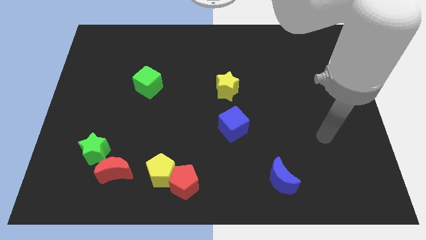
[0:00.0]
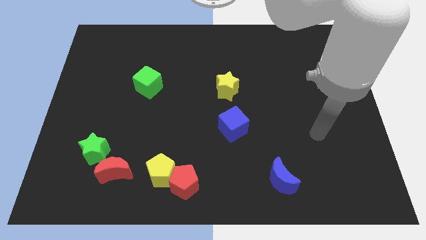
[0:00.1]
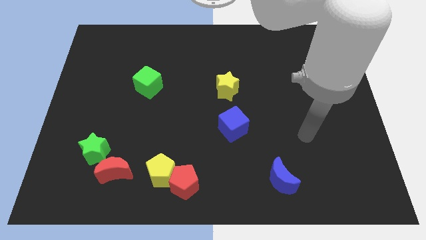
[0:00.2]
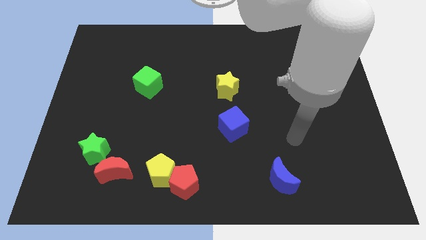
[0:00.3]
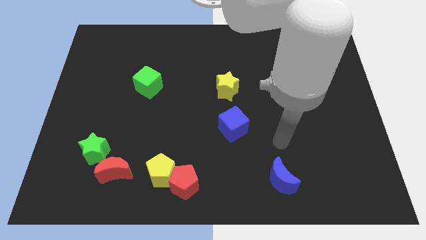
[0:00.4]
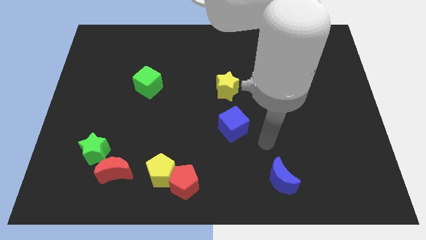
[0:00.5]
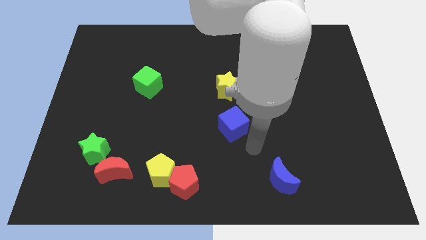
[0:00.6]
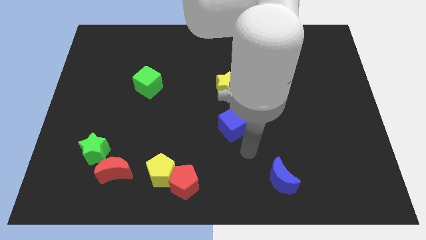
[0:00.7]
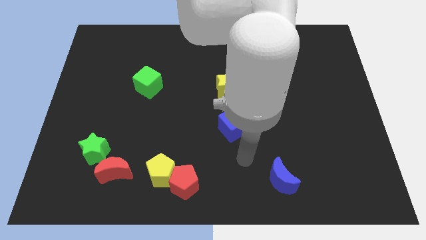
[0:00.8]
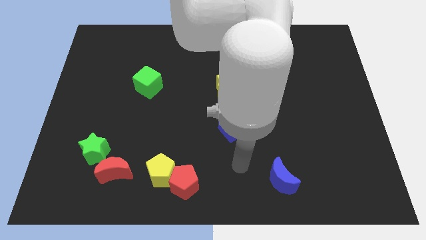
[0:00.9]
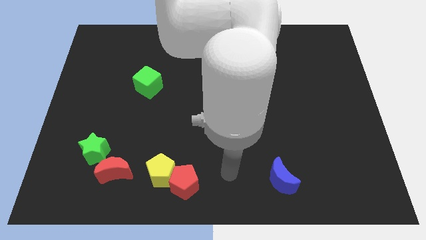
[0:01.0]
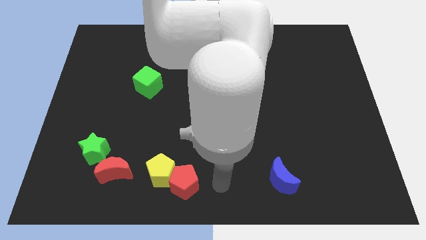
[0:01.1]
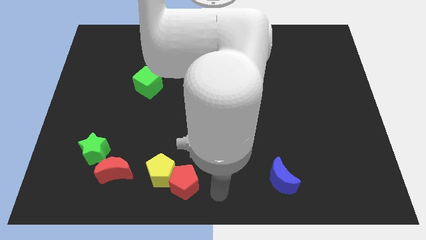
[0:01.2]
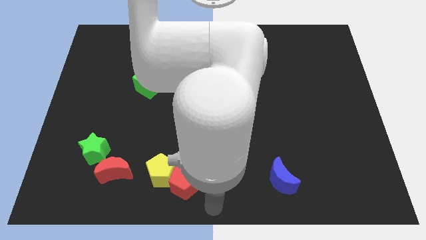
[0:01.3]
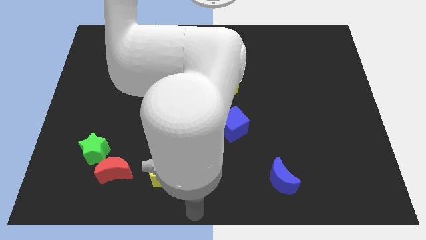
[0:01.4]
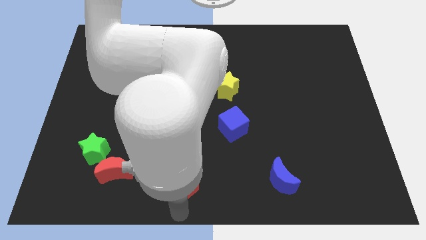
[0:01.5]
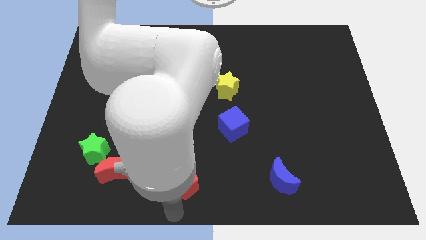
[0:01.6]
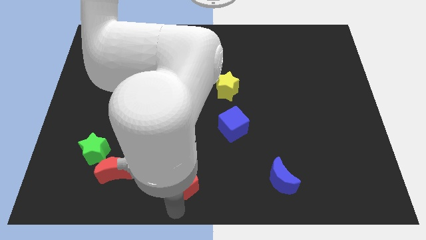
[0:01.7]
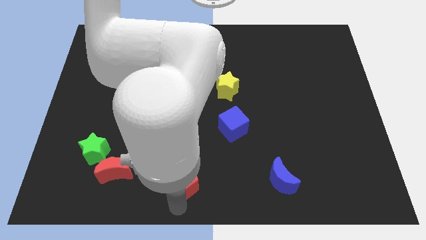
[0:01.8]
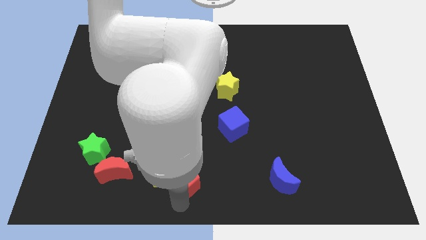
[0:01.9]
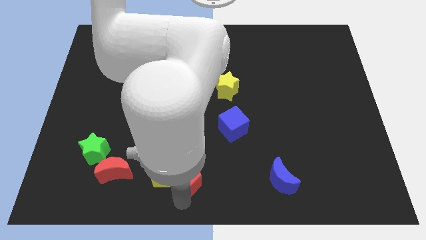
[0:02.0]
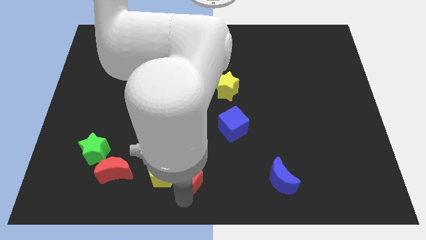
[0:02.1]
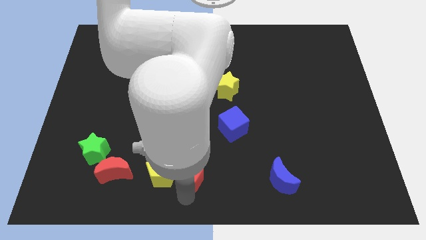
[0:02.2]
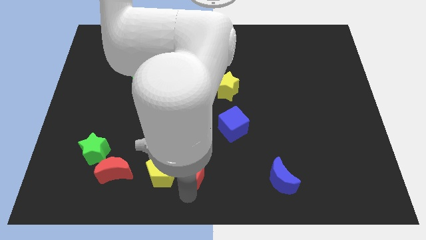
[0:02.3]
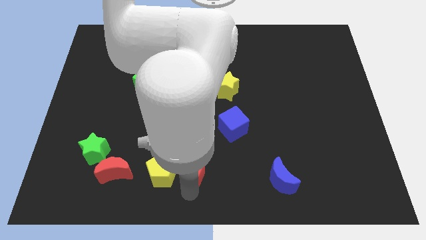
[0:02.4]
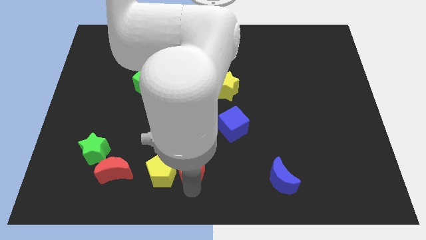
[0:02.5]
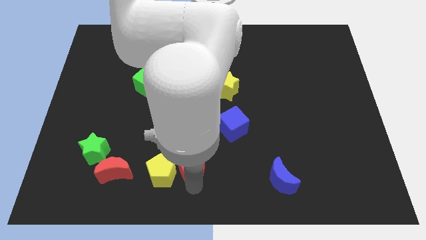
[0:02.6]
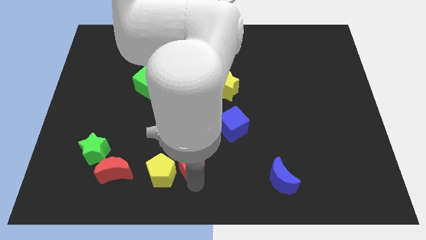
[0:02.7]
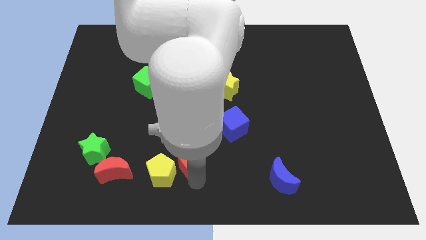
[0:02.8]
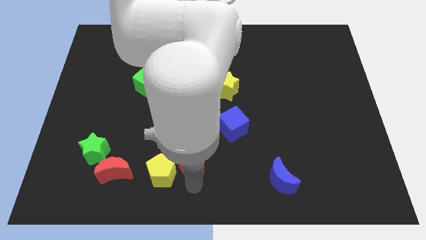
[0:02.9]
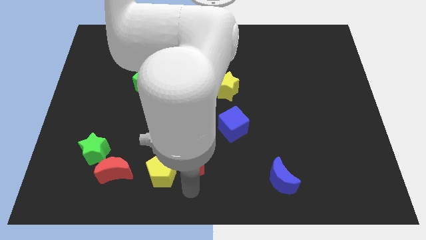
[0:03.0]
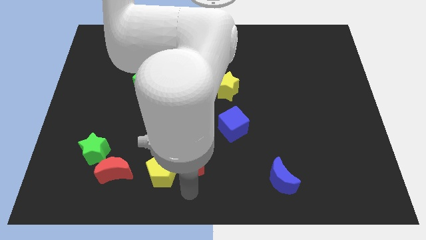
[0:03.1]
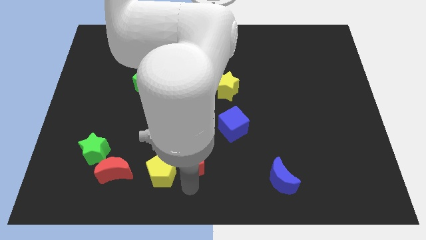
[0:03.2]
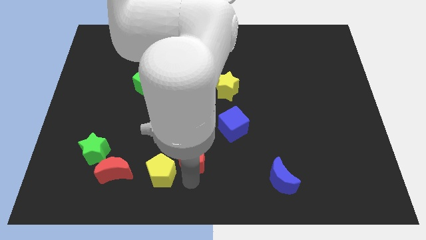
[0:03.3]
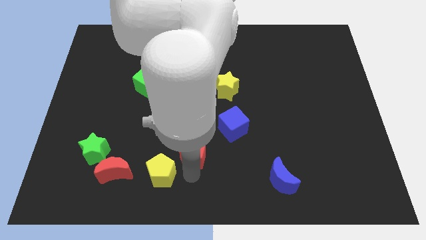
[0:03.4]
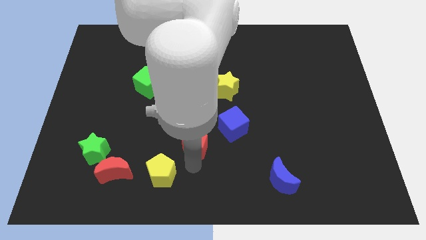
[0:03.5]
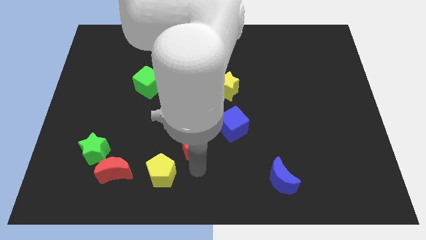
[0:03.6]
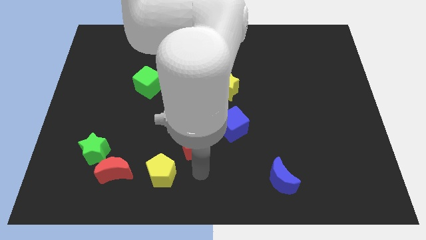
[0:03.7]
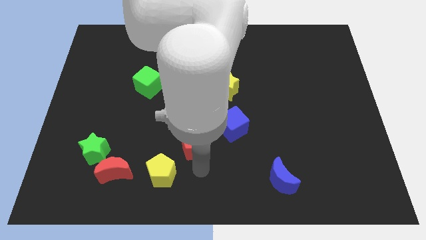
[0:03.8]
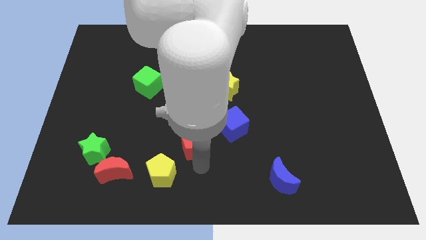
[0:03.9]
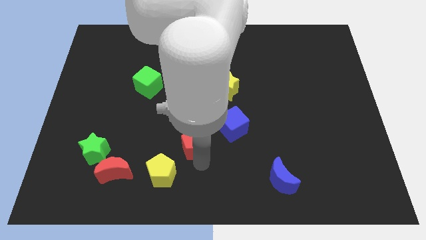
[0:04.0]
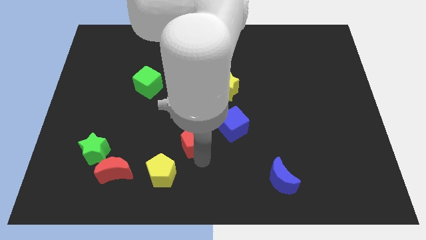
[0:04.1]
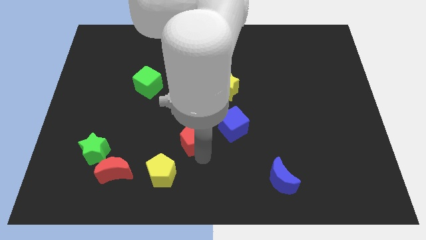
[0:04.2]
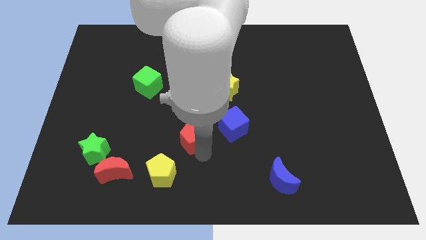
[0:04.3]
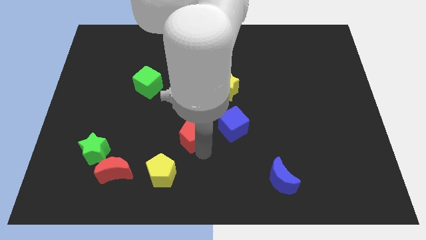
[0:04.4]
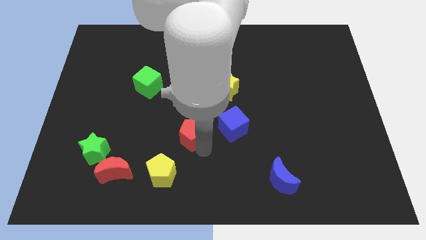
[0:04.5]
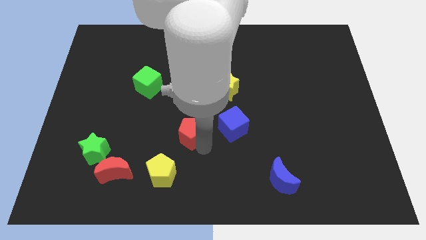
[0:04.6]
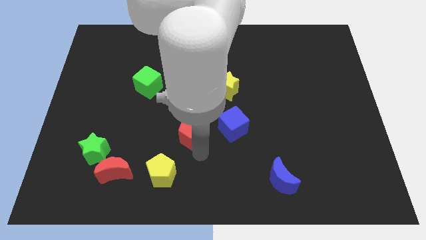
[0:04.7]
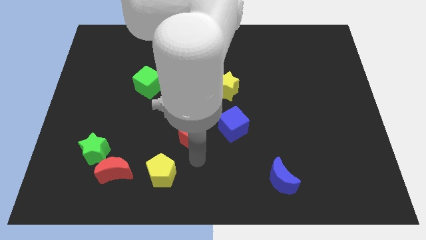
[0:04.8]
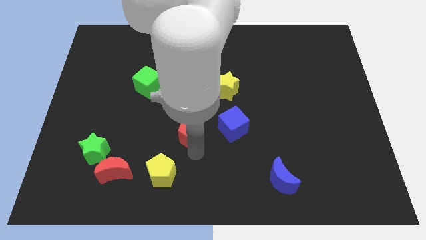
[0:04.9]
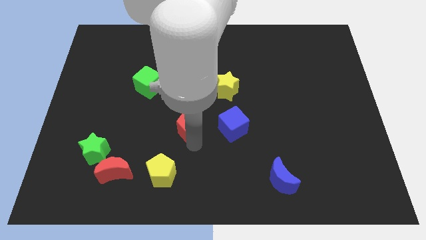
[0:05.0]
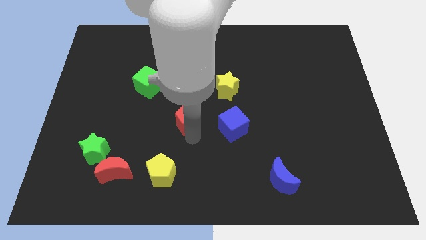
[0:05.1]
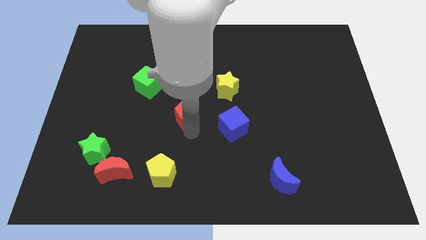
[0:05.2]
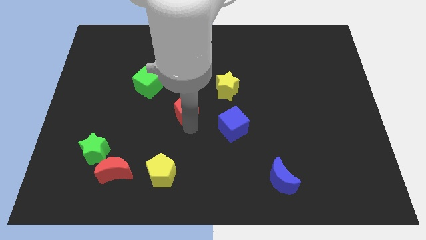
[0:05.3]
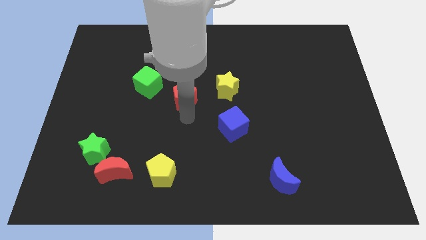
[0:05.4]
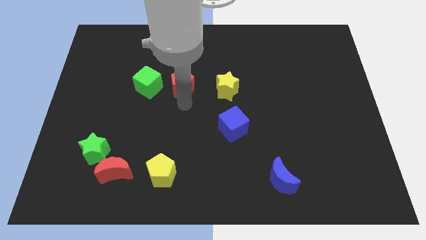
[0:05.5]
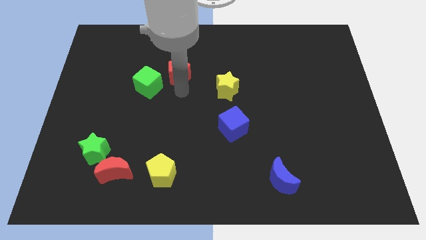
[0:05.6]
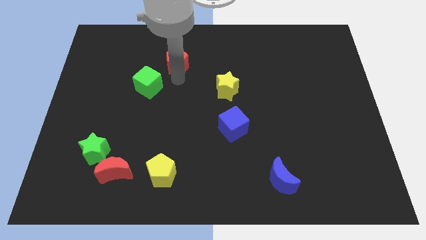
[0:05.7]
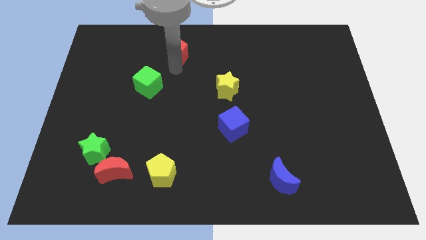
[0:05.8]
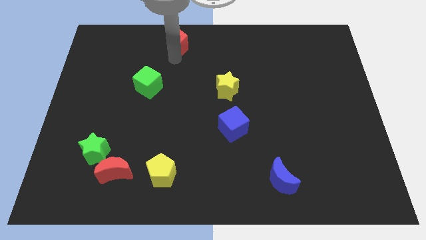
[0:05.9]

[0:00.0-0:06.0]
push the red pentagon to the top

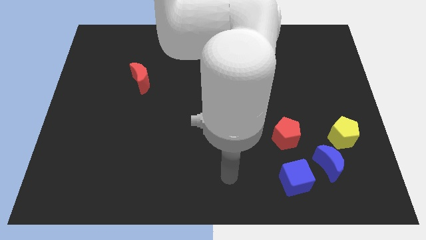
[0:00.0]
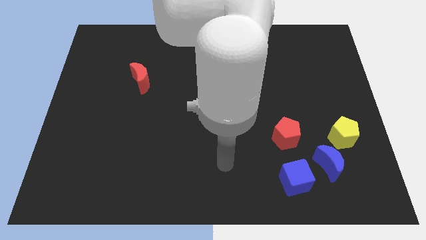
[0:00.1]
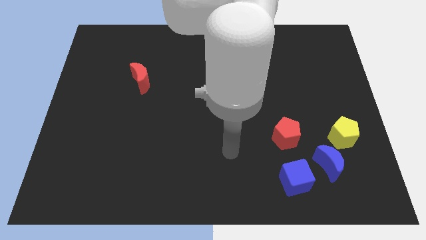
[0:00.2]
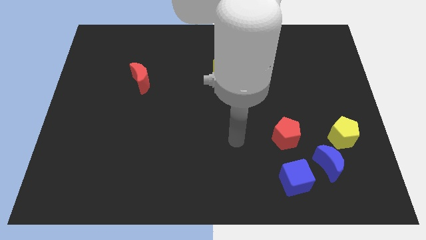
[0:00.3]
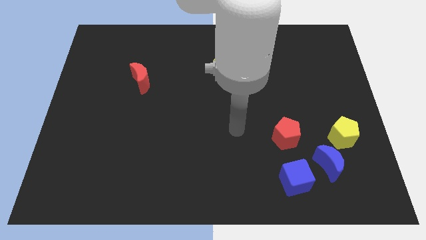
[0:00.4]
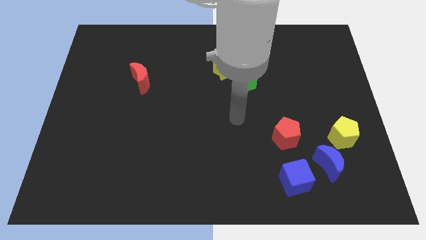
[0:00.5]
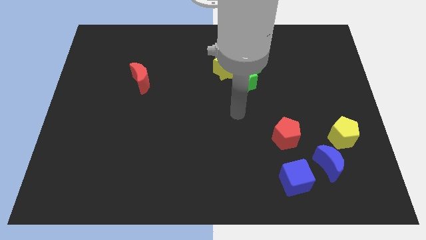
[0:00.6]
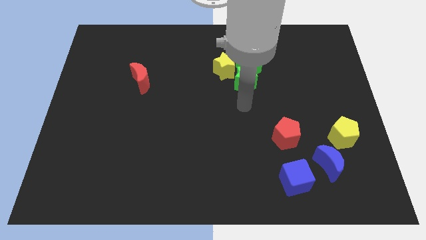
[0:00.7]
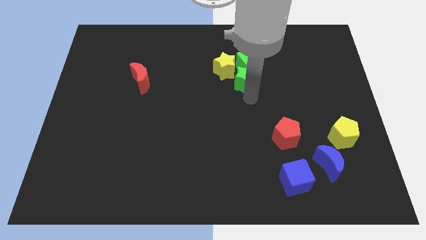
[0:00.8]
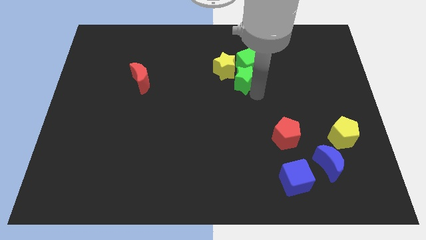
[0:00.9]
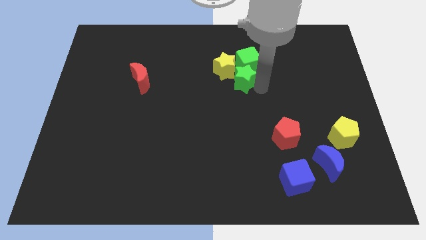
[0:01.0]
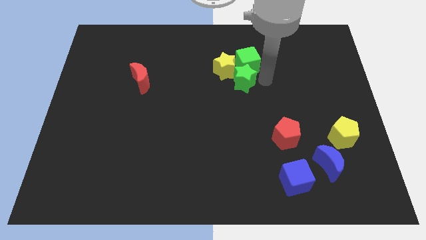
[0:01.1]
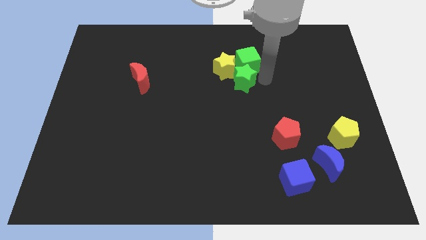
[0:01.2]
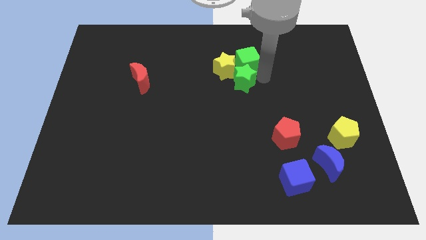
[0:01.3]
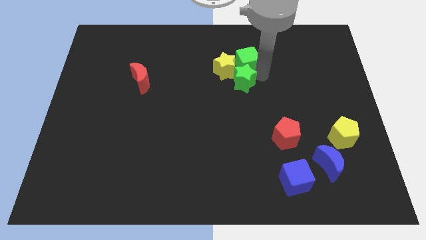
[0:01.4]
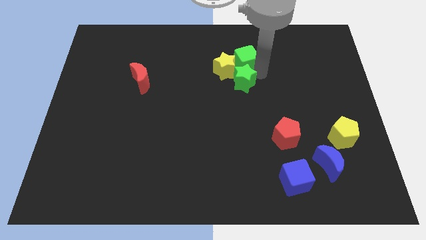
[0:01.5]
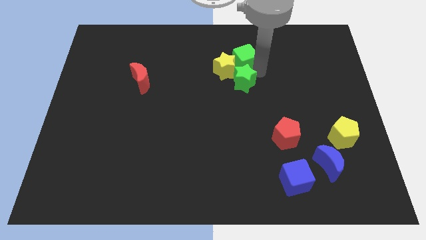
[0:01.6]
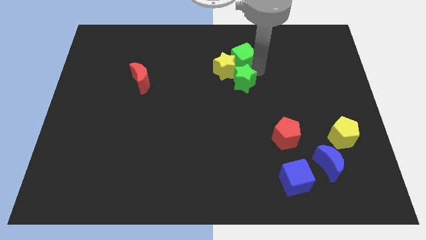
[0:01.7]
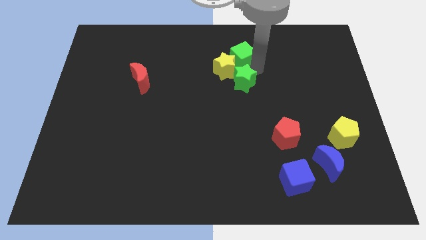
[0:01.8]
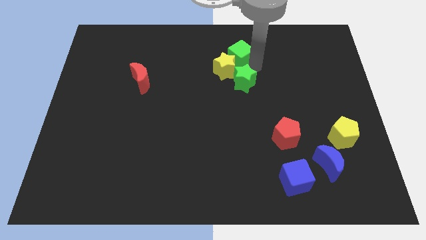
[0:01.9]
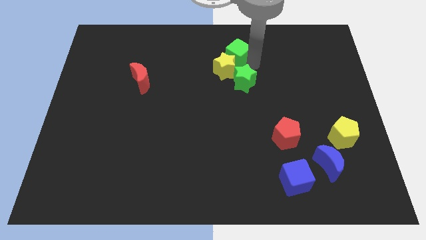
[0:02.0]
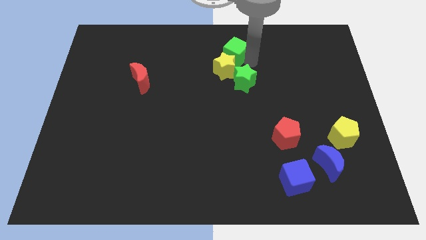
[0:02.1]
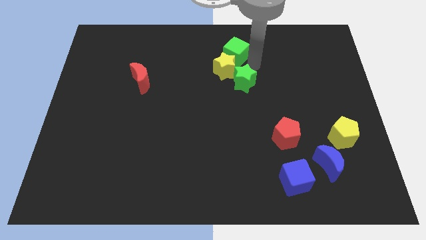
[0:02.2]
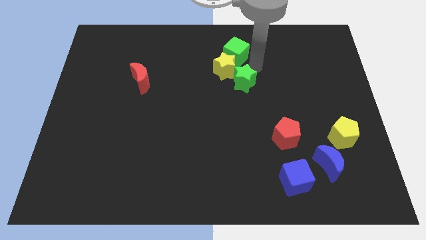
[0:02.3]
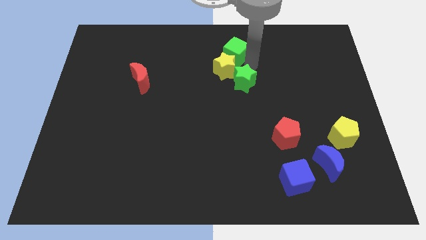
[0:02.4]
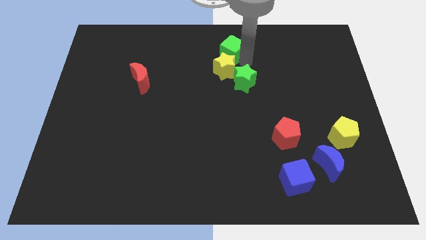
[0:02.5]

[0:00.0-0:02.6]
put the green cube to the top side
